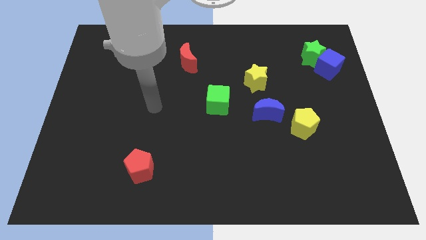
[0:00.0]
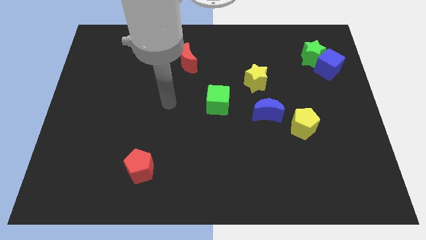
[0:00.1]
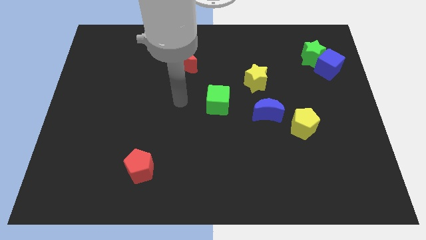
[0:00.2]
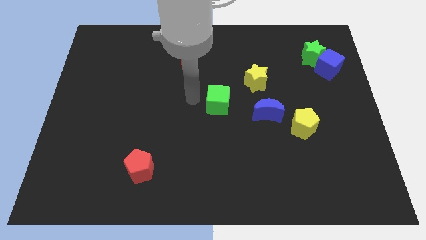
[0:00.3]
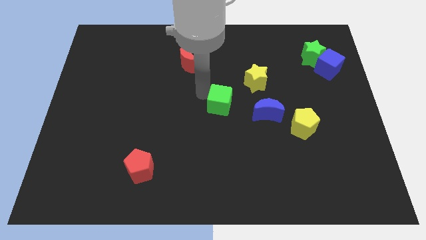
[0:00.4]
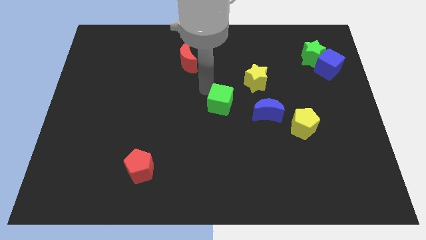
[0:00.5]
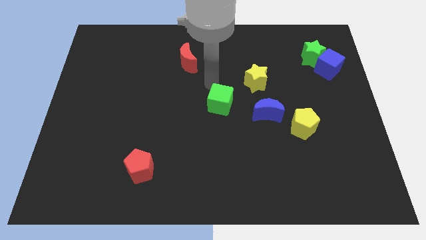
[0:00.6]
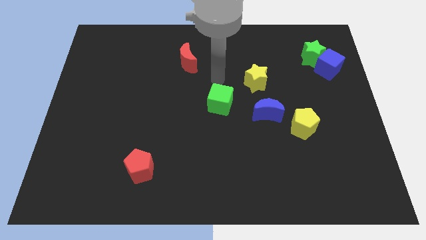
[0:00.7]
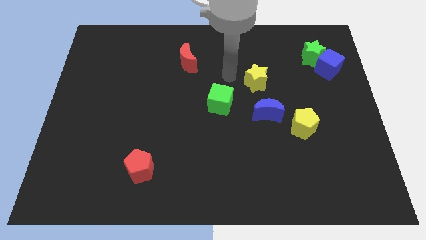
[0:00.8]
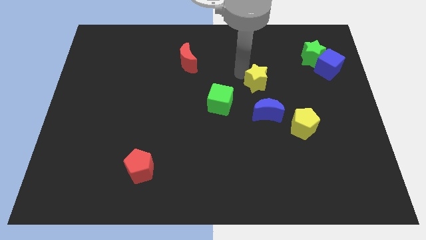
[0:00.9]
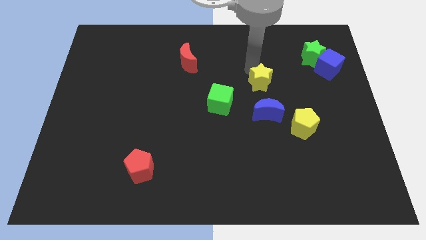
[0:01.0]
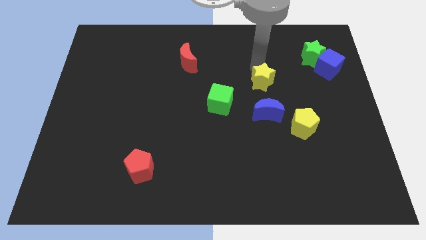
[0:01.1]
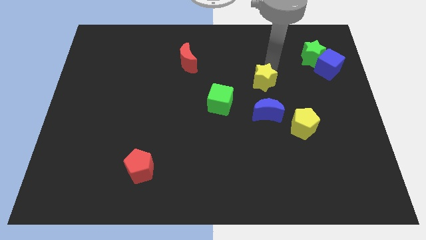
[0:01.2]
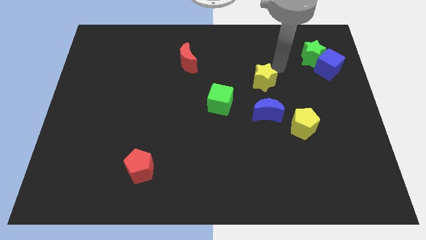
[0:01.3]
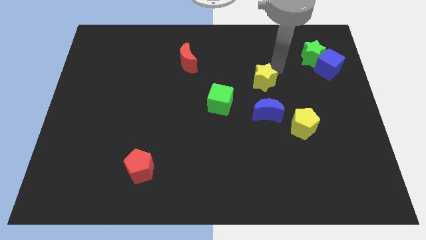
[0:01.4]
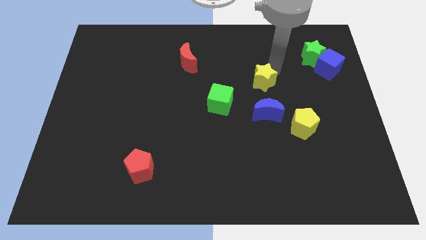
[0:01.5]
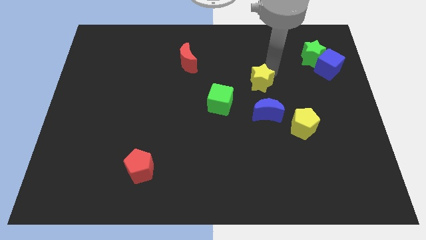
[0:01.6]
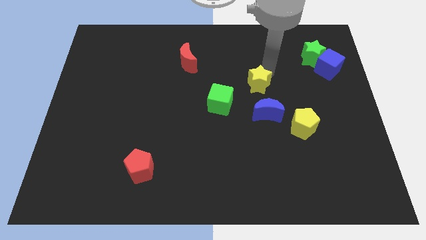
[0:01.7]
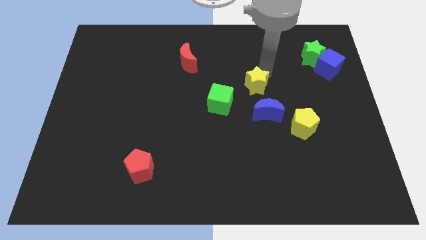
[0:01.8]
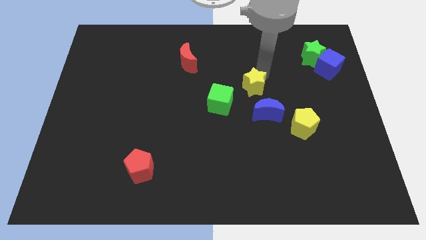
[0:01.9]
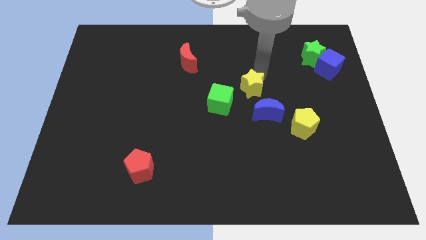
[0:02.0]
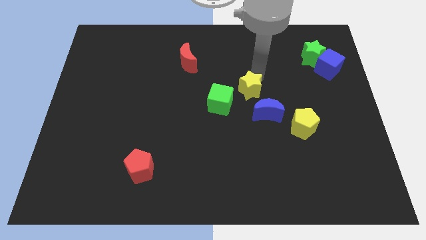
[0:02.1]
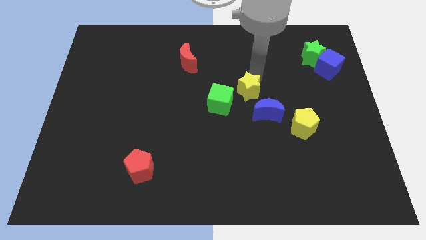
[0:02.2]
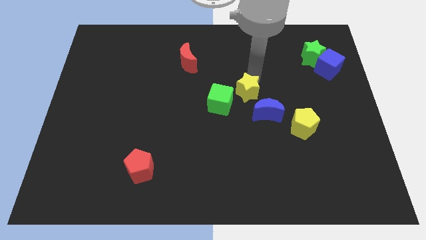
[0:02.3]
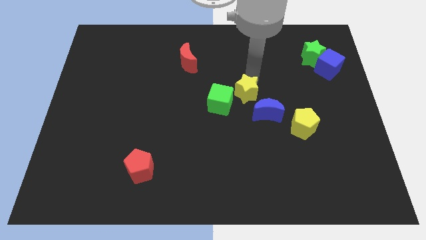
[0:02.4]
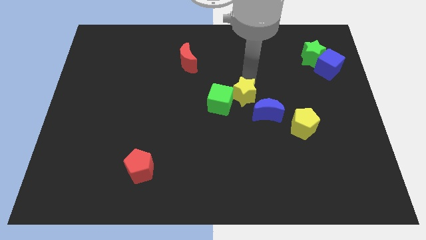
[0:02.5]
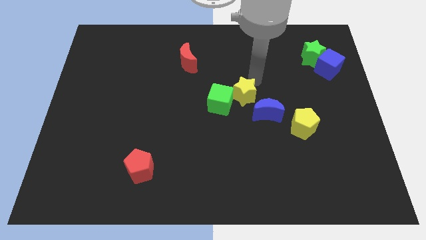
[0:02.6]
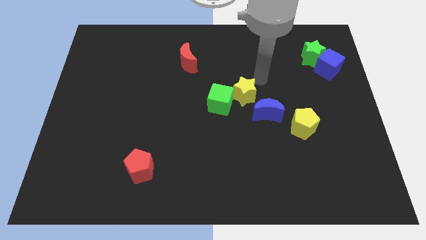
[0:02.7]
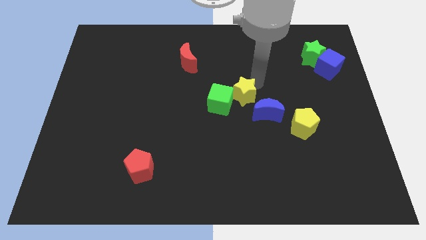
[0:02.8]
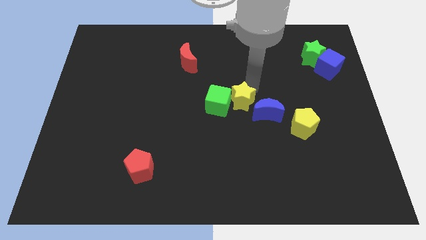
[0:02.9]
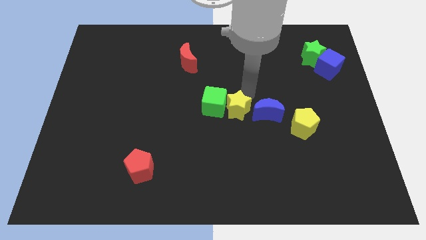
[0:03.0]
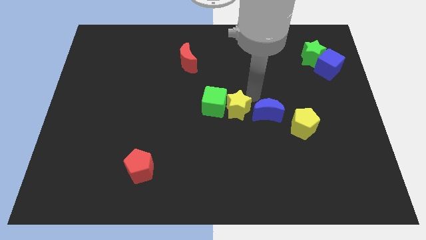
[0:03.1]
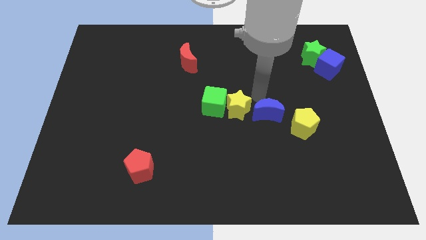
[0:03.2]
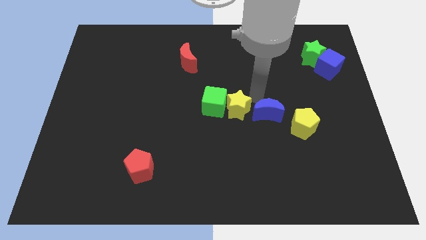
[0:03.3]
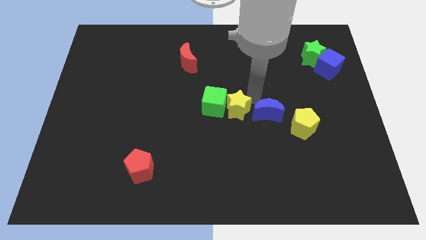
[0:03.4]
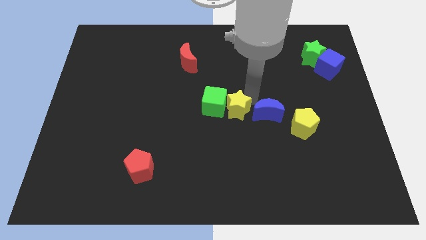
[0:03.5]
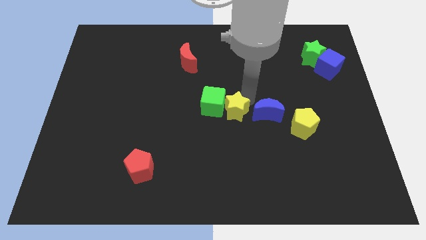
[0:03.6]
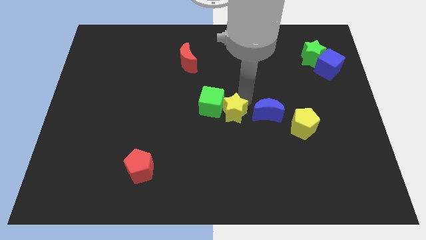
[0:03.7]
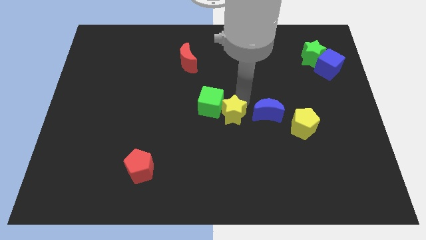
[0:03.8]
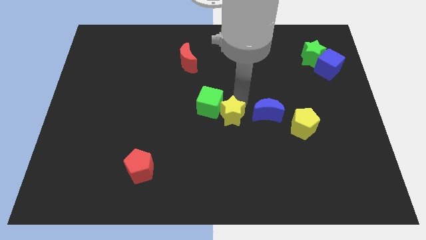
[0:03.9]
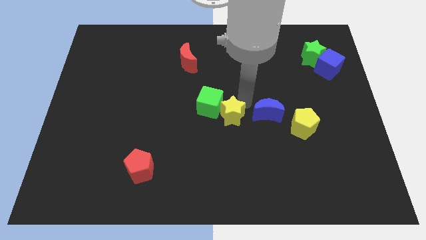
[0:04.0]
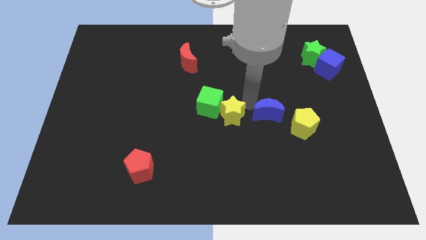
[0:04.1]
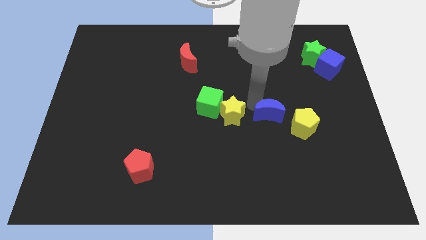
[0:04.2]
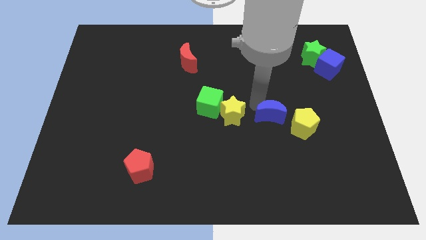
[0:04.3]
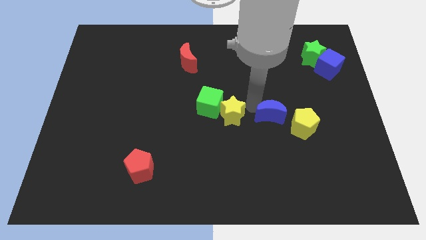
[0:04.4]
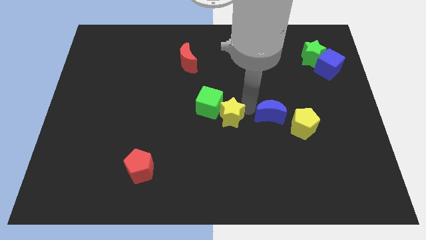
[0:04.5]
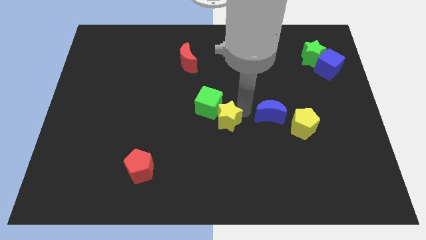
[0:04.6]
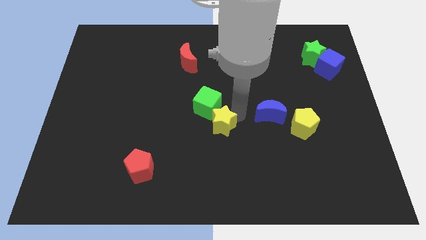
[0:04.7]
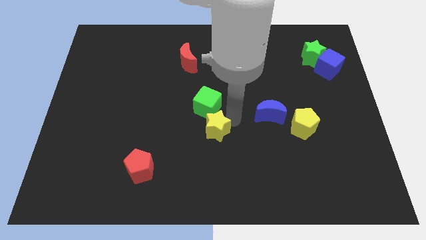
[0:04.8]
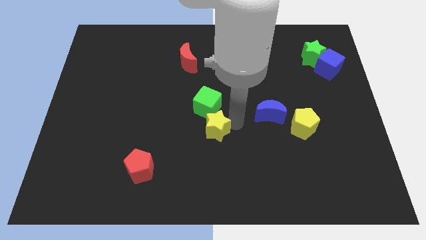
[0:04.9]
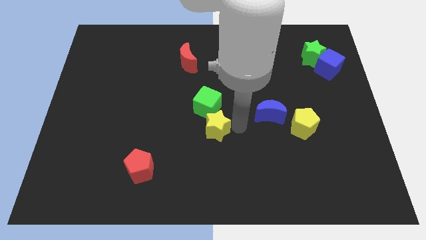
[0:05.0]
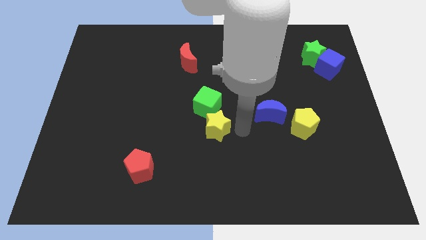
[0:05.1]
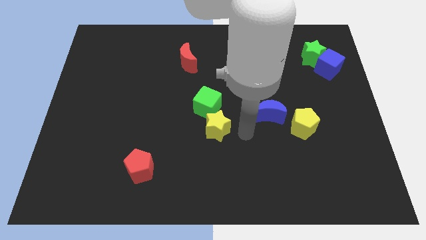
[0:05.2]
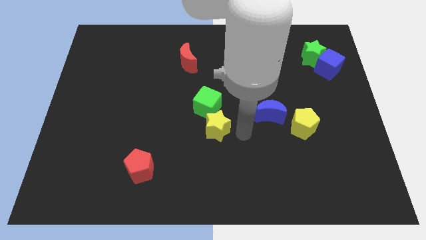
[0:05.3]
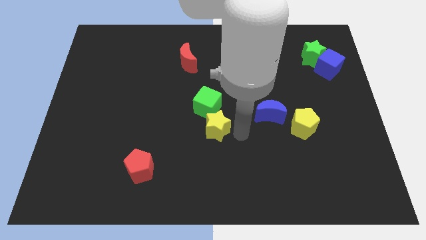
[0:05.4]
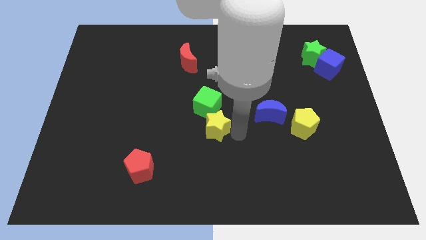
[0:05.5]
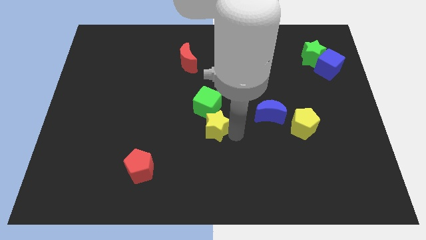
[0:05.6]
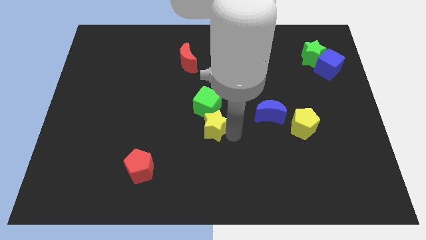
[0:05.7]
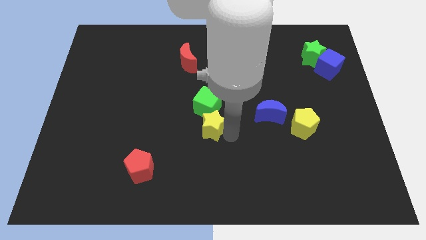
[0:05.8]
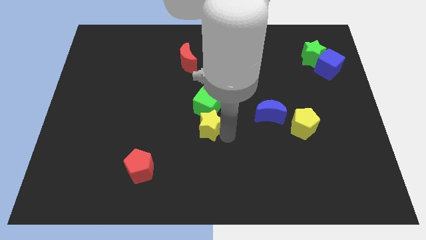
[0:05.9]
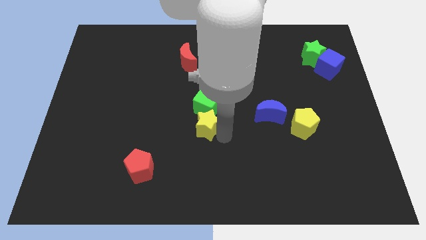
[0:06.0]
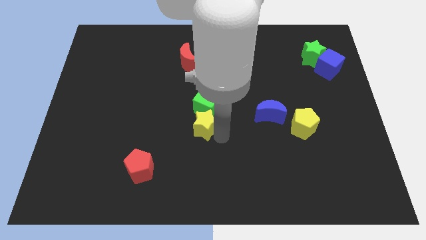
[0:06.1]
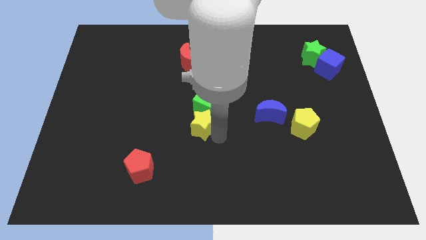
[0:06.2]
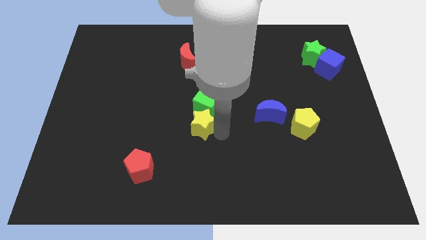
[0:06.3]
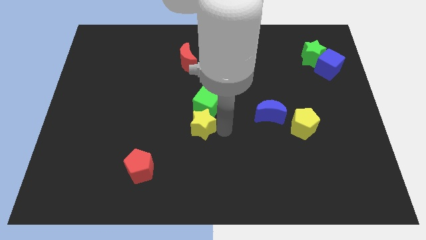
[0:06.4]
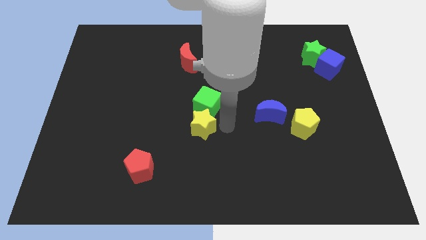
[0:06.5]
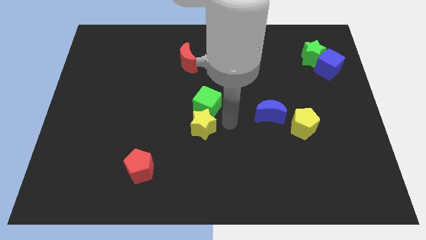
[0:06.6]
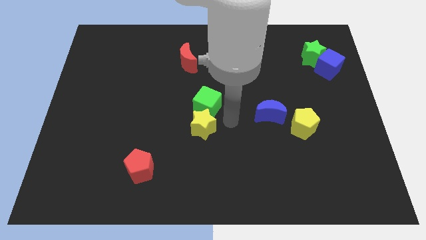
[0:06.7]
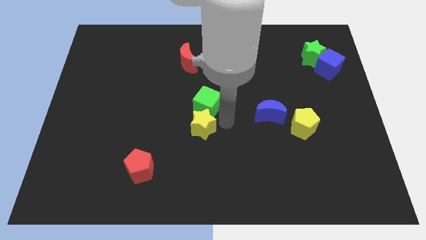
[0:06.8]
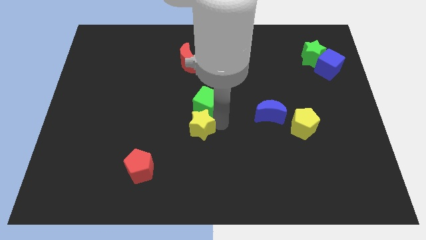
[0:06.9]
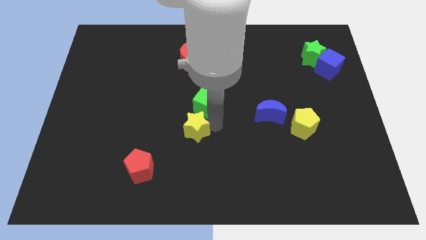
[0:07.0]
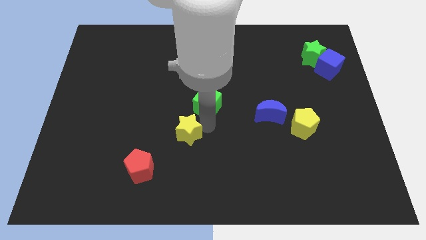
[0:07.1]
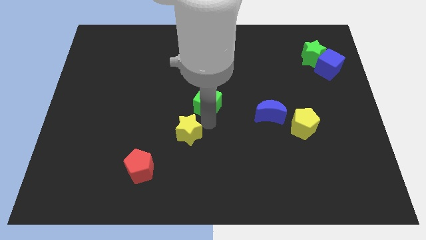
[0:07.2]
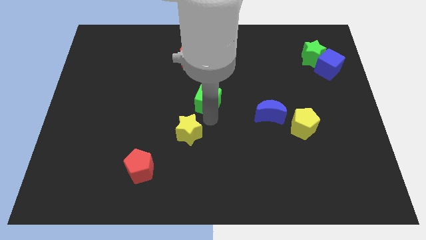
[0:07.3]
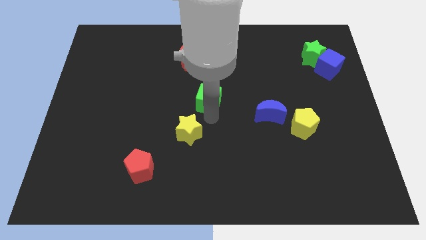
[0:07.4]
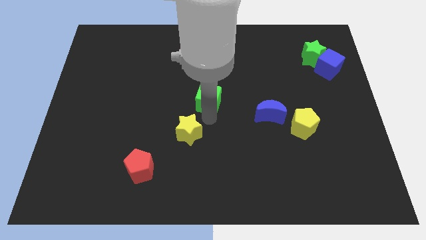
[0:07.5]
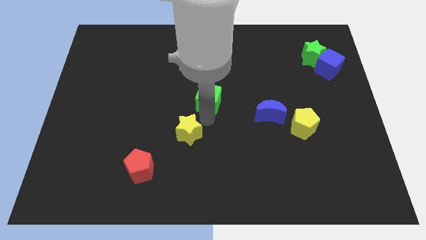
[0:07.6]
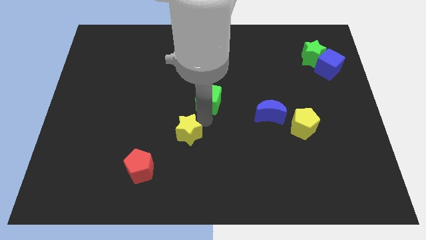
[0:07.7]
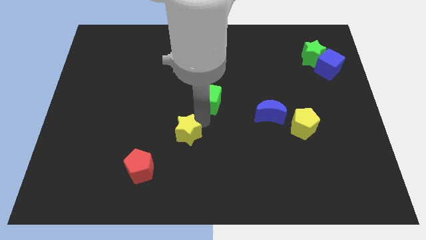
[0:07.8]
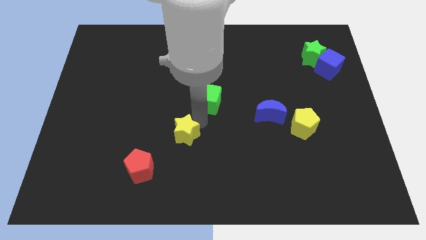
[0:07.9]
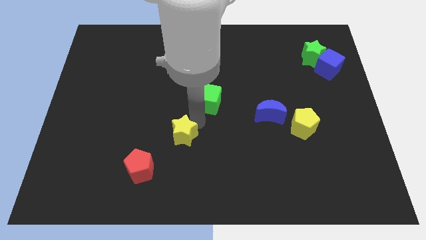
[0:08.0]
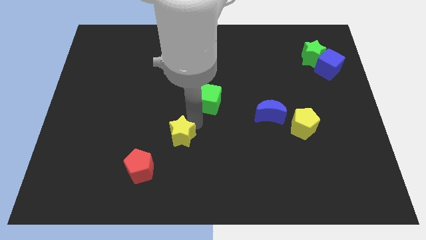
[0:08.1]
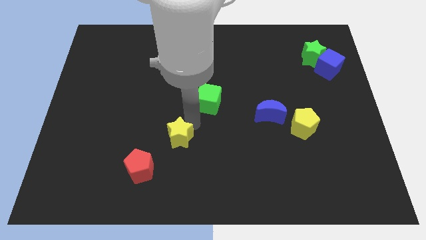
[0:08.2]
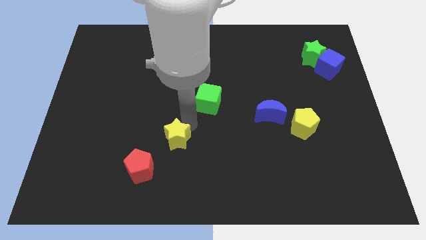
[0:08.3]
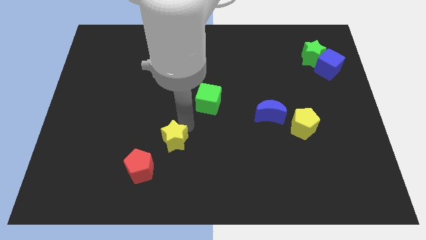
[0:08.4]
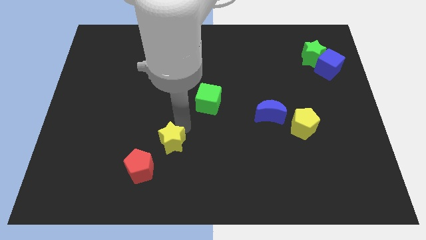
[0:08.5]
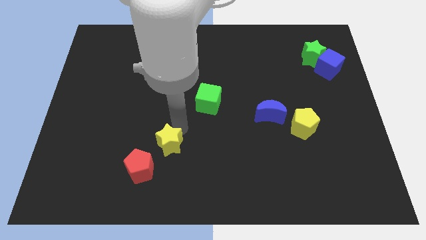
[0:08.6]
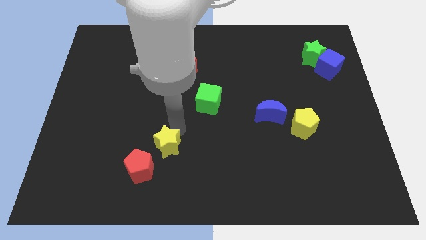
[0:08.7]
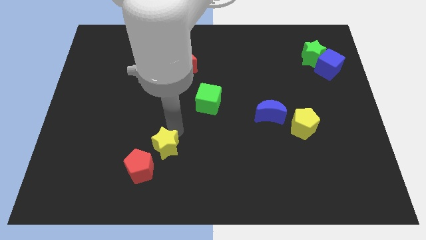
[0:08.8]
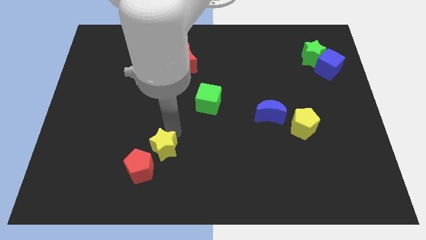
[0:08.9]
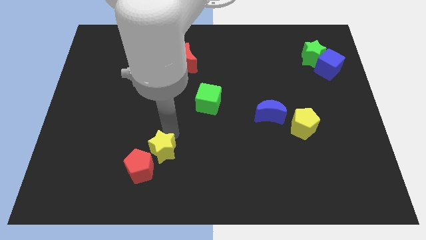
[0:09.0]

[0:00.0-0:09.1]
move the yellow star to the red pentagon
